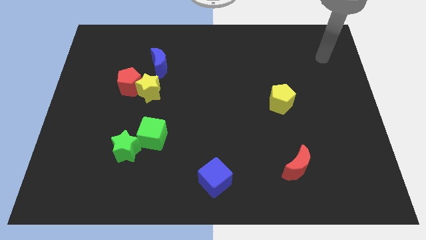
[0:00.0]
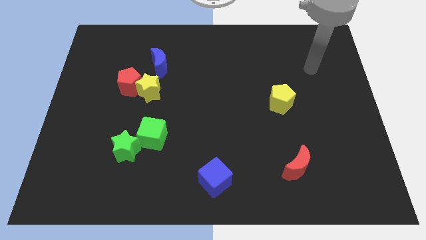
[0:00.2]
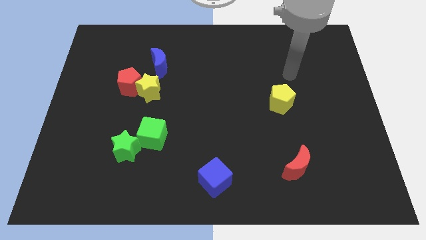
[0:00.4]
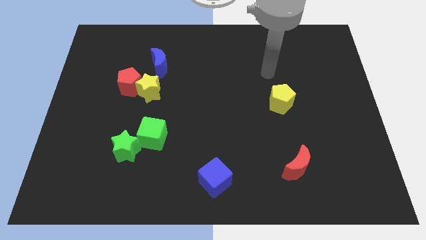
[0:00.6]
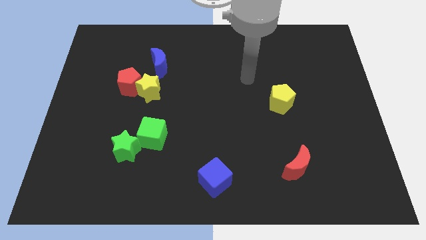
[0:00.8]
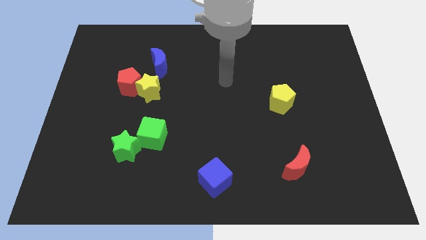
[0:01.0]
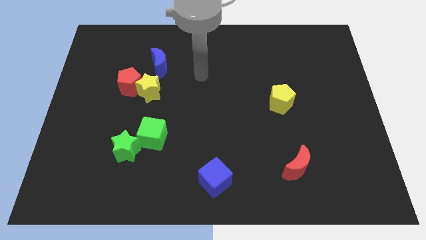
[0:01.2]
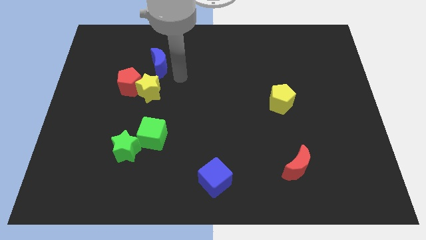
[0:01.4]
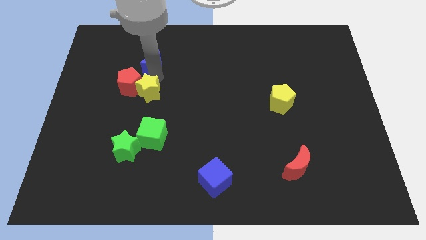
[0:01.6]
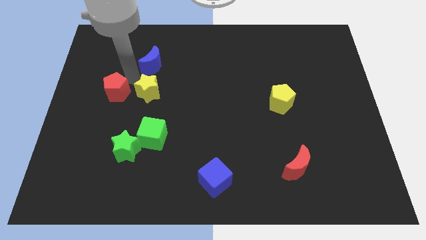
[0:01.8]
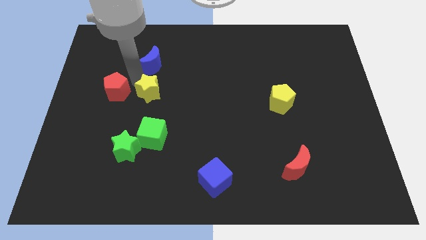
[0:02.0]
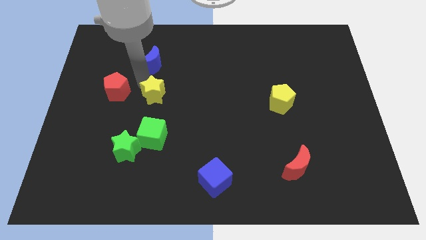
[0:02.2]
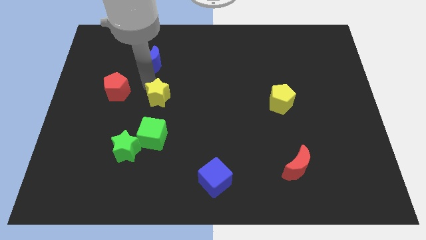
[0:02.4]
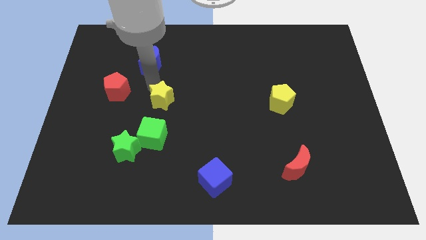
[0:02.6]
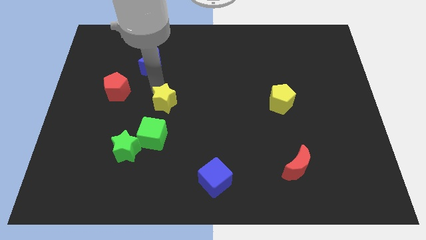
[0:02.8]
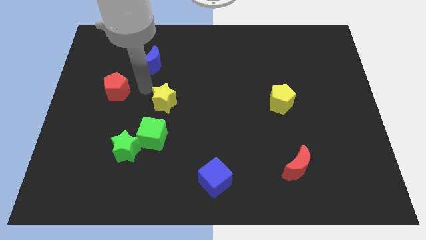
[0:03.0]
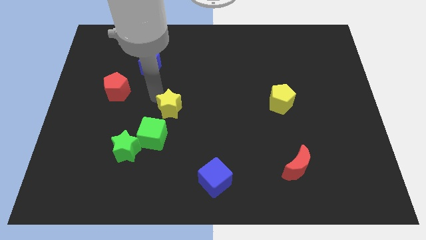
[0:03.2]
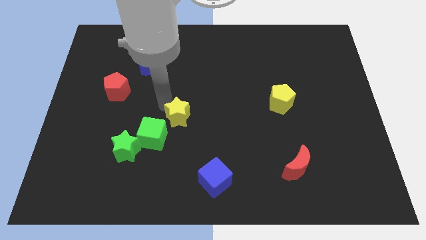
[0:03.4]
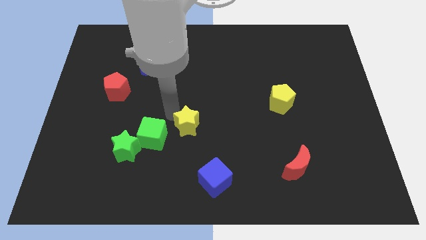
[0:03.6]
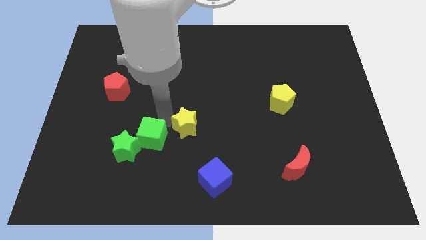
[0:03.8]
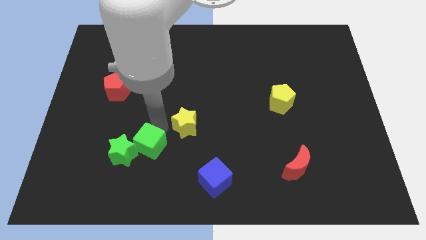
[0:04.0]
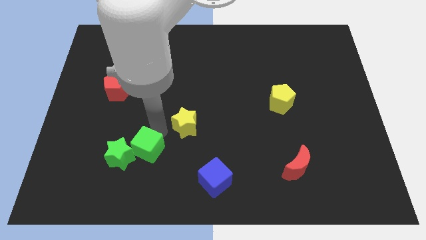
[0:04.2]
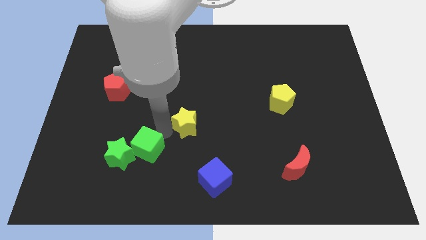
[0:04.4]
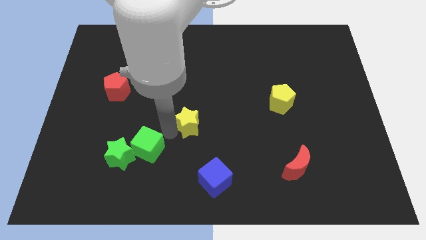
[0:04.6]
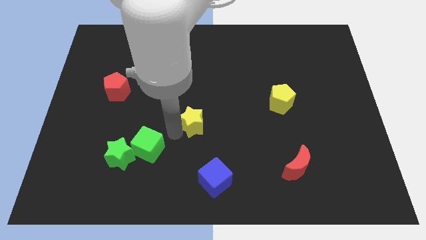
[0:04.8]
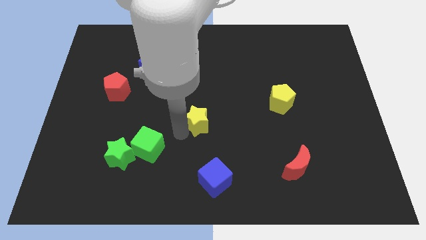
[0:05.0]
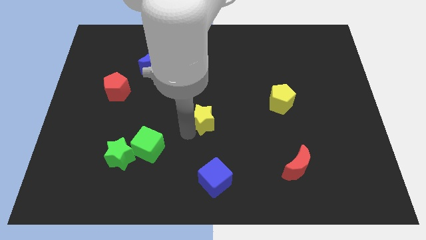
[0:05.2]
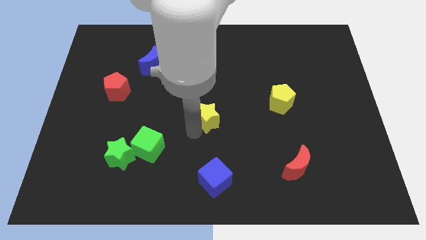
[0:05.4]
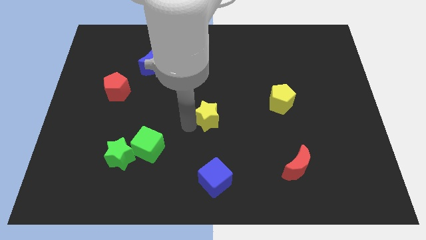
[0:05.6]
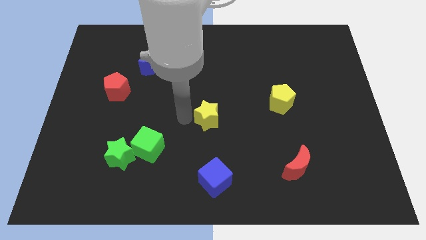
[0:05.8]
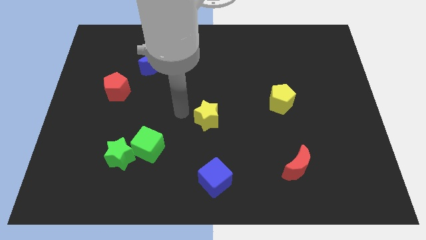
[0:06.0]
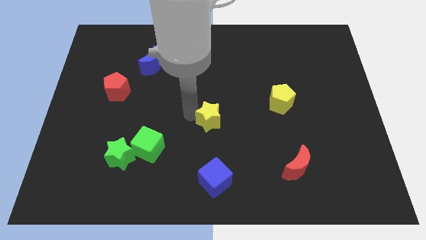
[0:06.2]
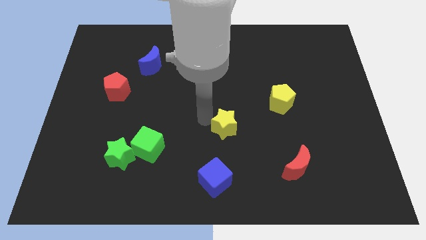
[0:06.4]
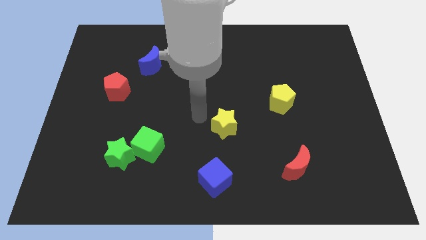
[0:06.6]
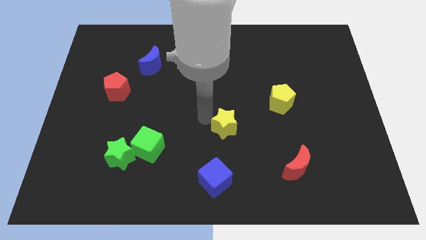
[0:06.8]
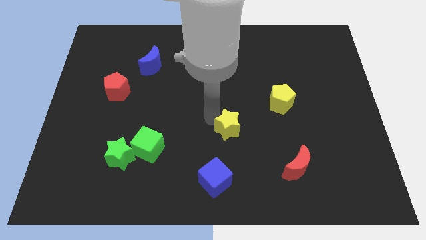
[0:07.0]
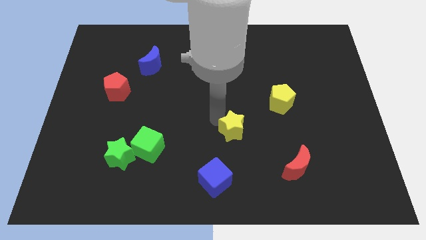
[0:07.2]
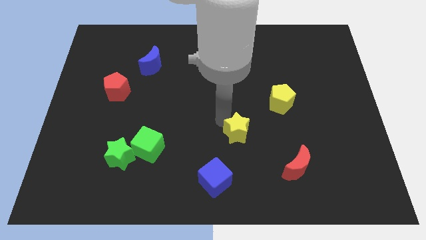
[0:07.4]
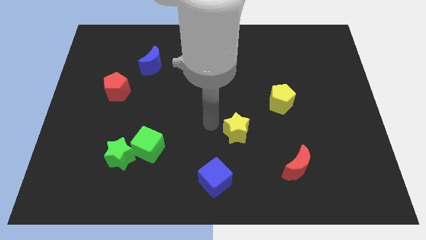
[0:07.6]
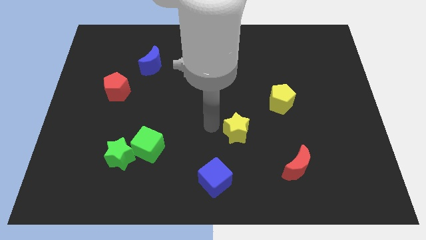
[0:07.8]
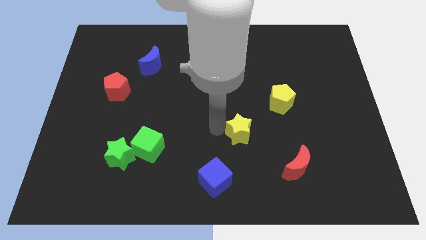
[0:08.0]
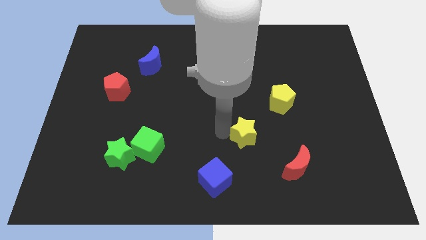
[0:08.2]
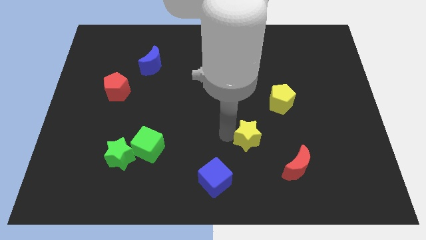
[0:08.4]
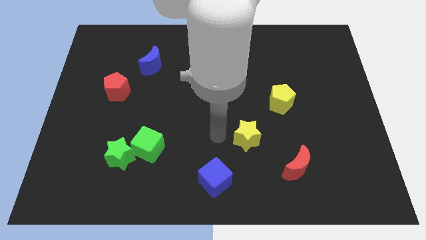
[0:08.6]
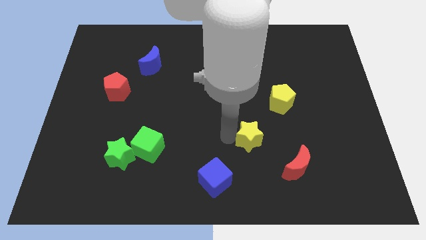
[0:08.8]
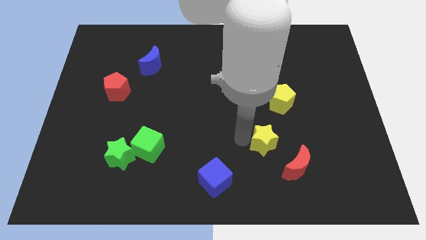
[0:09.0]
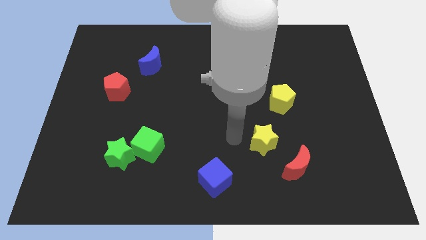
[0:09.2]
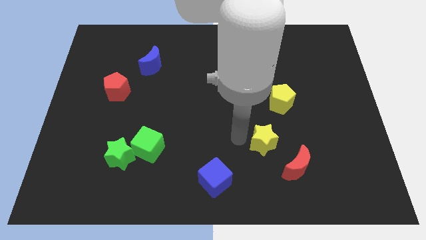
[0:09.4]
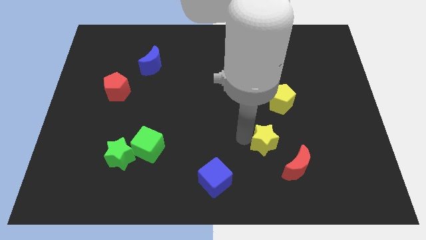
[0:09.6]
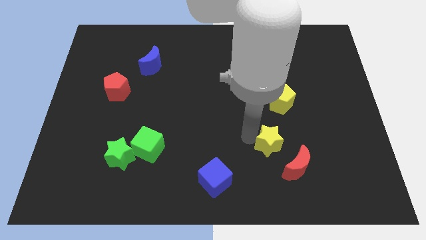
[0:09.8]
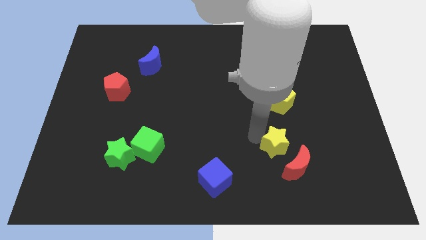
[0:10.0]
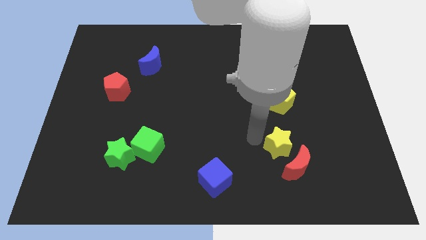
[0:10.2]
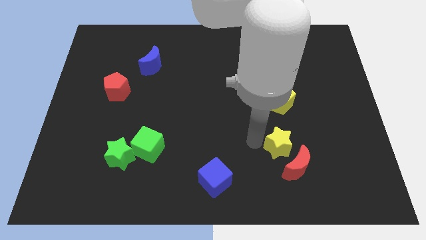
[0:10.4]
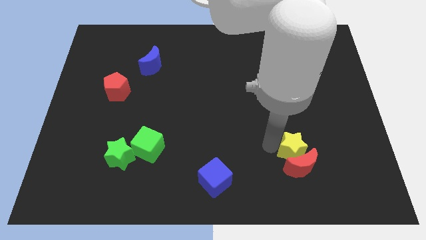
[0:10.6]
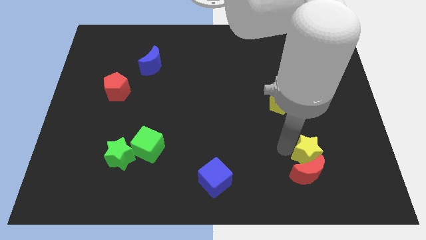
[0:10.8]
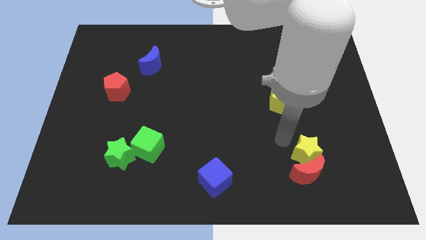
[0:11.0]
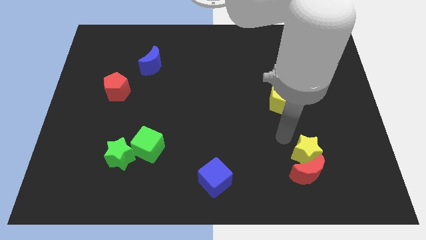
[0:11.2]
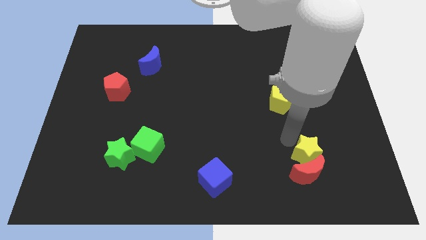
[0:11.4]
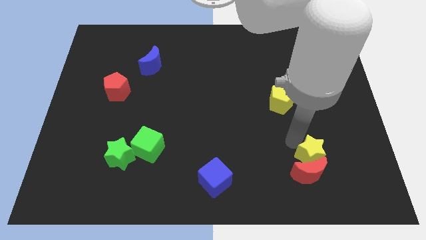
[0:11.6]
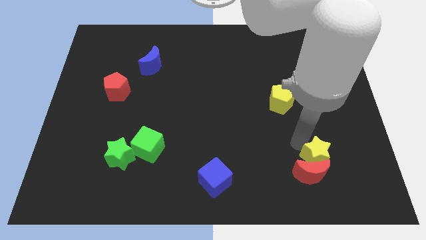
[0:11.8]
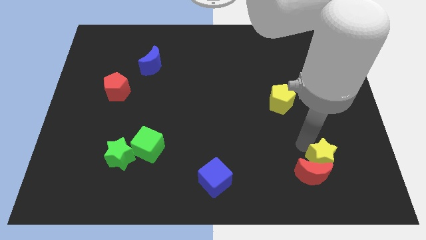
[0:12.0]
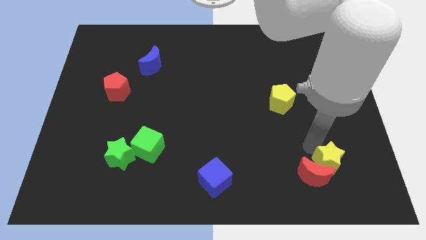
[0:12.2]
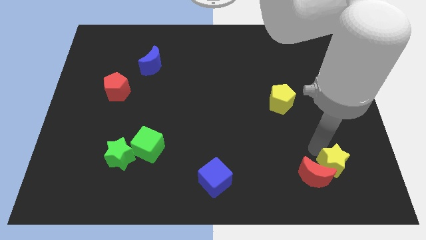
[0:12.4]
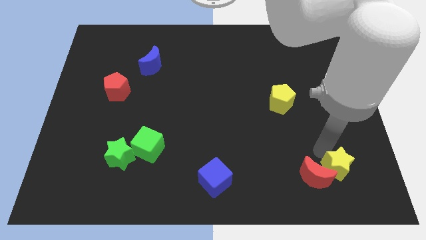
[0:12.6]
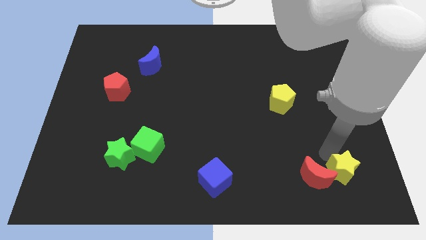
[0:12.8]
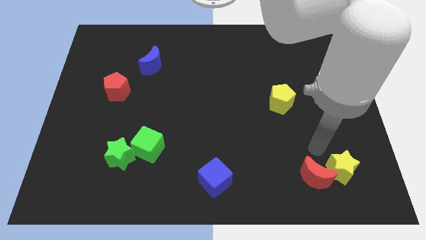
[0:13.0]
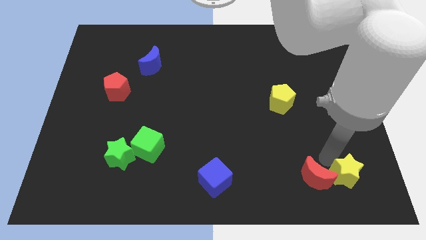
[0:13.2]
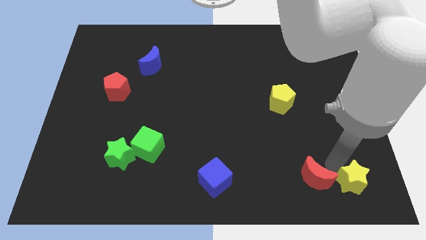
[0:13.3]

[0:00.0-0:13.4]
put the yellow star to the bottom right of the board
